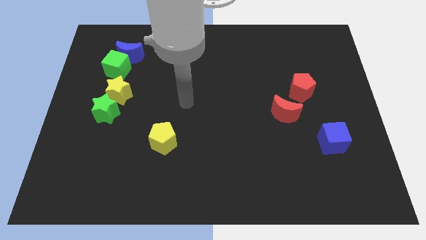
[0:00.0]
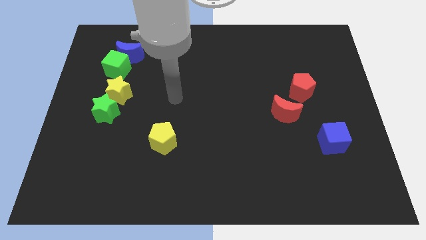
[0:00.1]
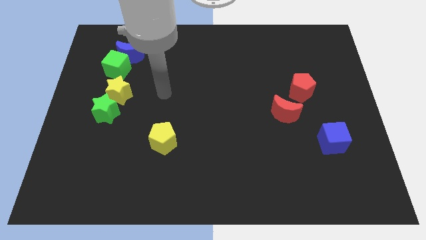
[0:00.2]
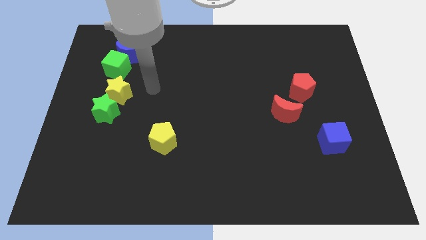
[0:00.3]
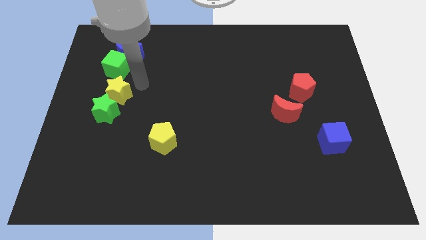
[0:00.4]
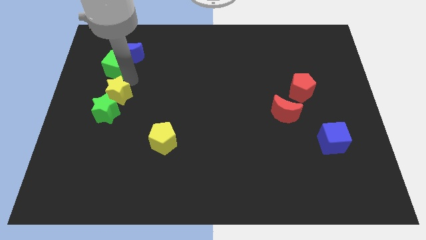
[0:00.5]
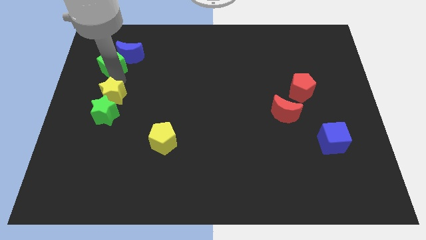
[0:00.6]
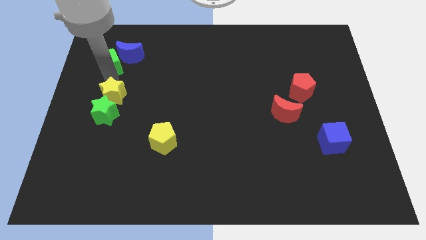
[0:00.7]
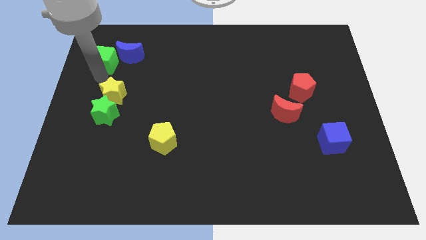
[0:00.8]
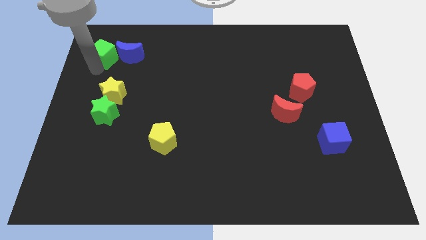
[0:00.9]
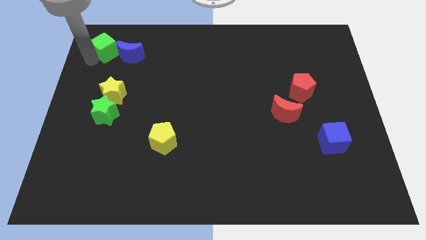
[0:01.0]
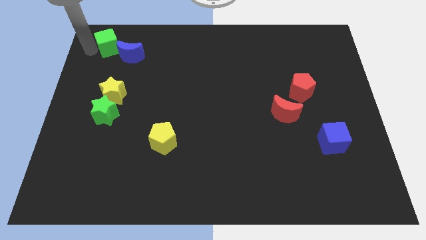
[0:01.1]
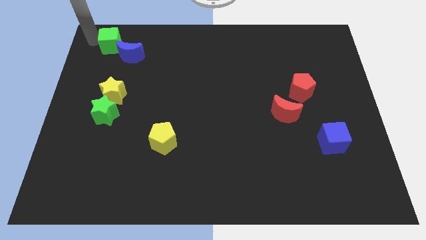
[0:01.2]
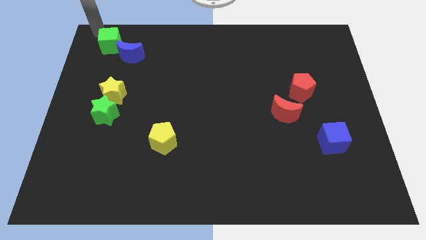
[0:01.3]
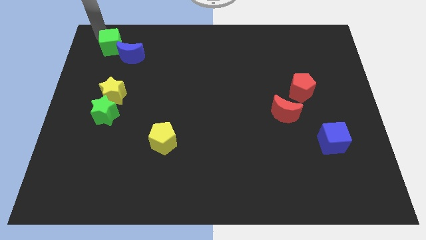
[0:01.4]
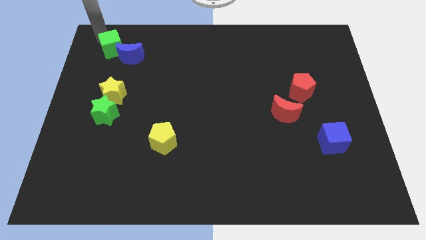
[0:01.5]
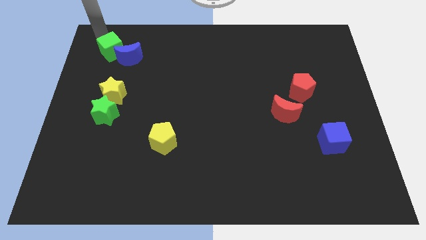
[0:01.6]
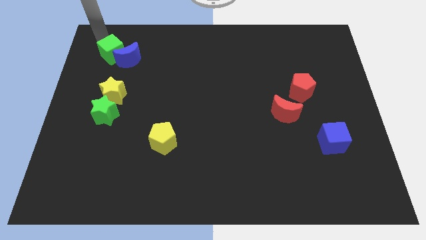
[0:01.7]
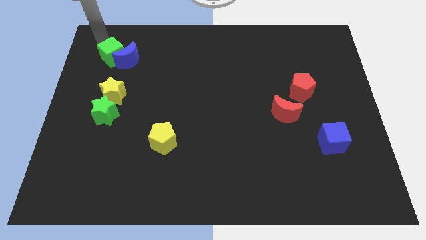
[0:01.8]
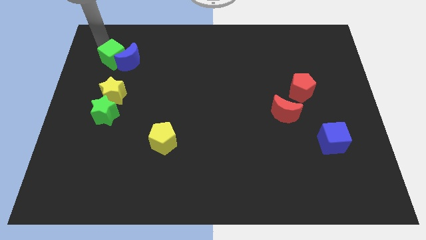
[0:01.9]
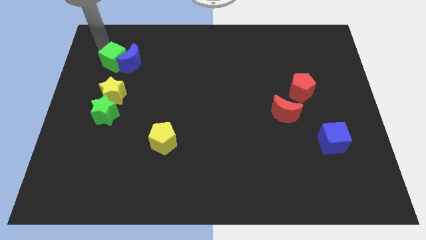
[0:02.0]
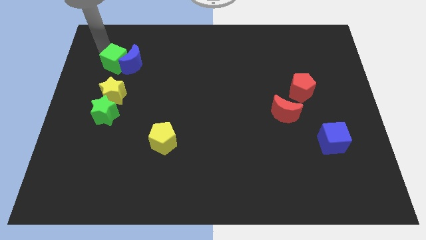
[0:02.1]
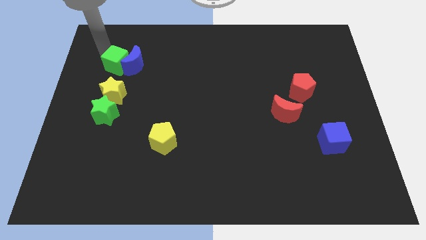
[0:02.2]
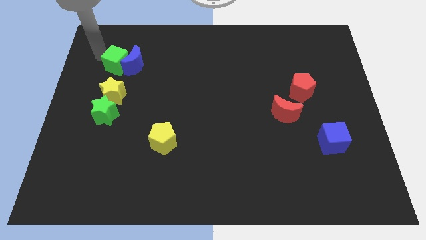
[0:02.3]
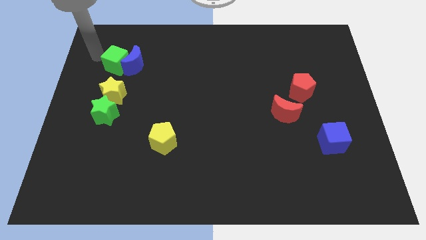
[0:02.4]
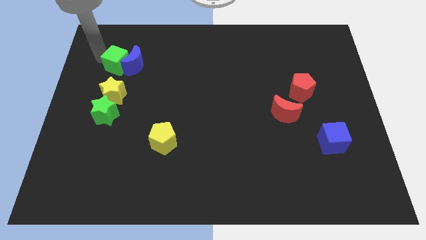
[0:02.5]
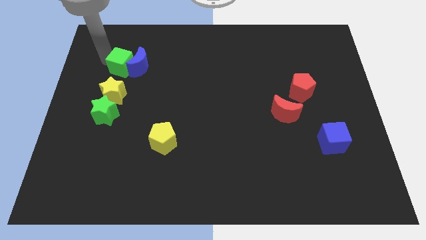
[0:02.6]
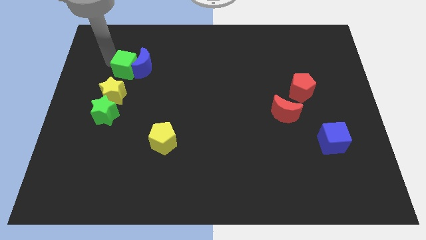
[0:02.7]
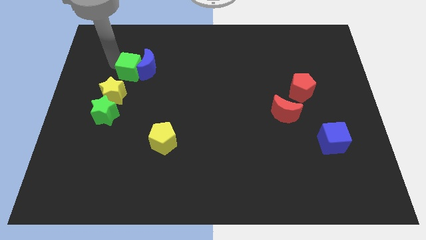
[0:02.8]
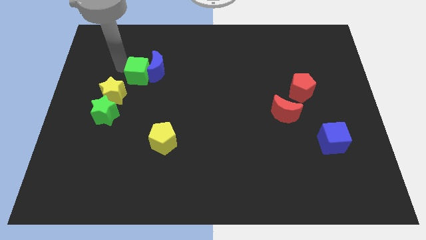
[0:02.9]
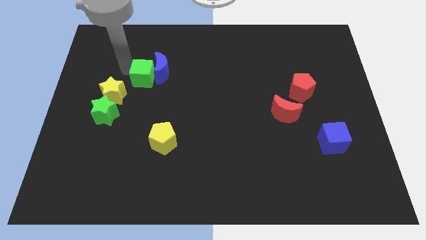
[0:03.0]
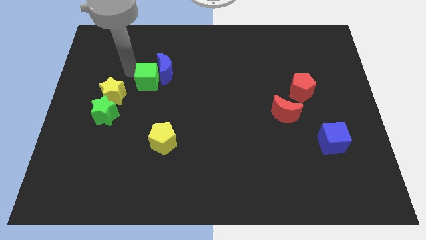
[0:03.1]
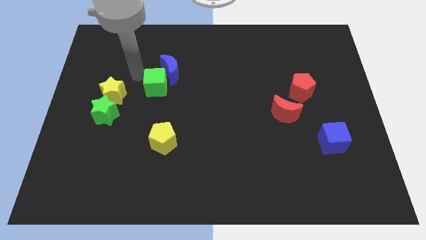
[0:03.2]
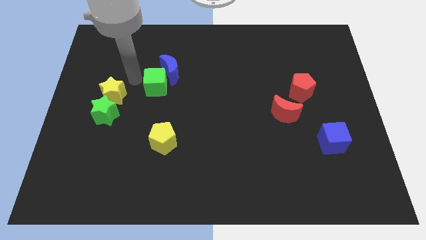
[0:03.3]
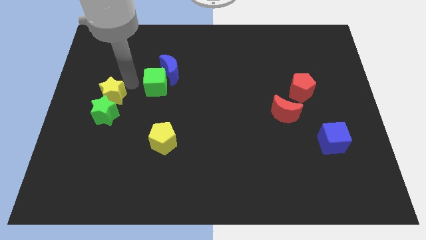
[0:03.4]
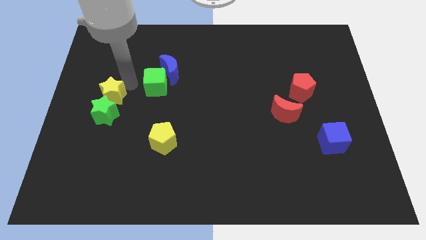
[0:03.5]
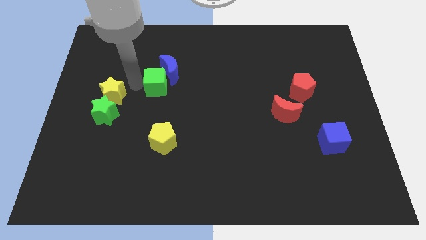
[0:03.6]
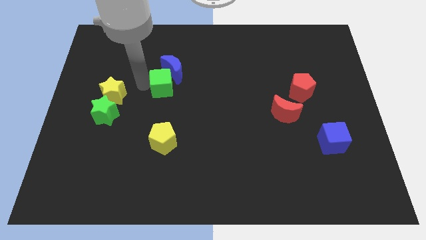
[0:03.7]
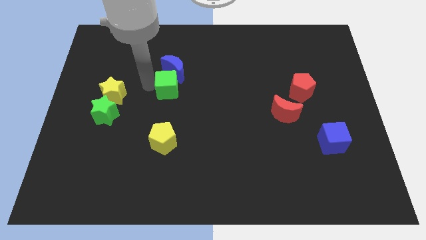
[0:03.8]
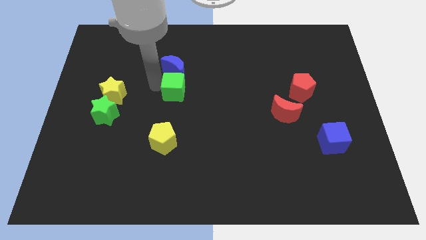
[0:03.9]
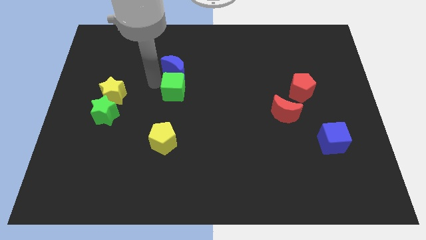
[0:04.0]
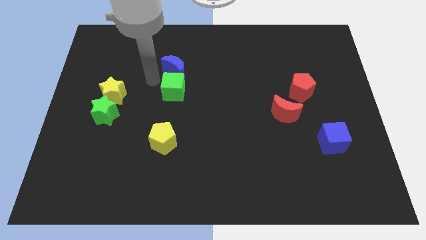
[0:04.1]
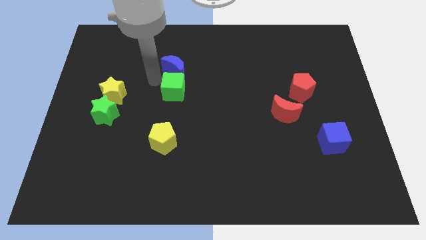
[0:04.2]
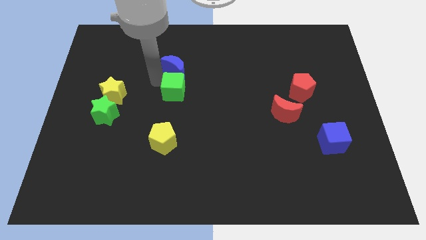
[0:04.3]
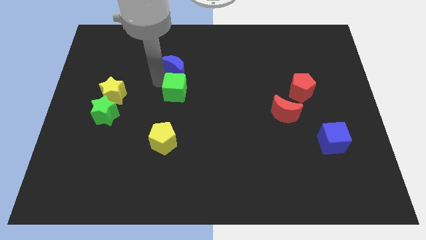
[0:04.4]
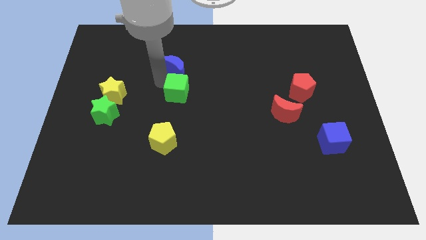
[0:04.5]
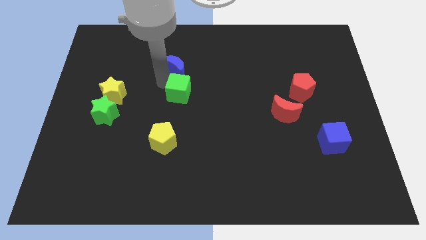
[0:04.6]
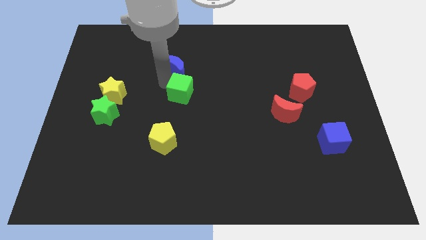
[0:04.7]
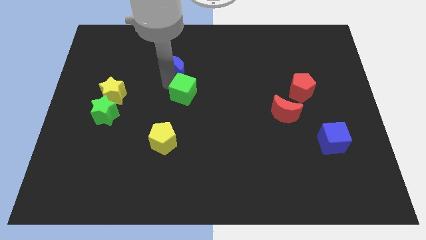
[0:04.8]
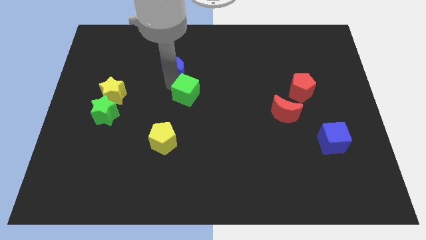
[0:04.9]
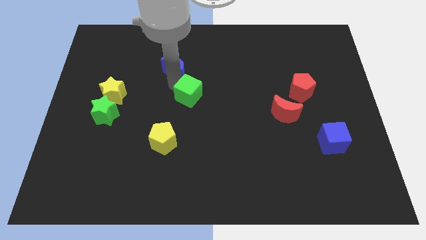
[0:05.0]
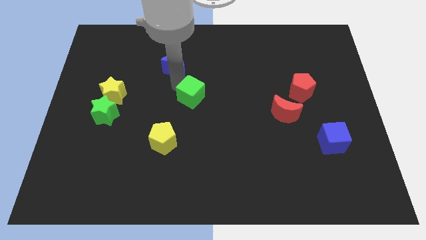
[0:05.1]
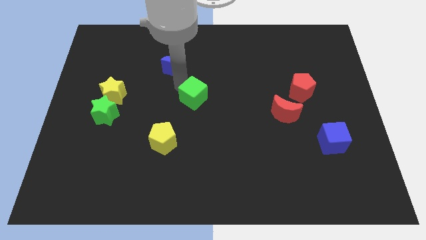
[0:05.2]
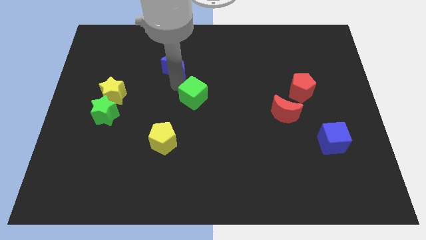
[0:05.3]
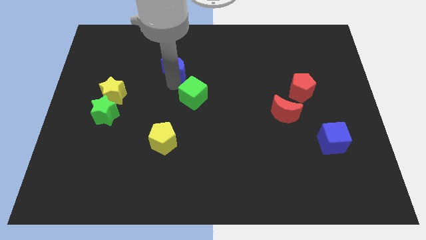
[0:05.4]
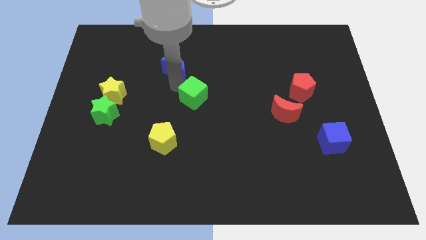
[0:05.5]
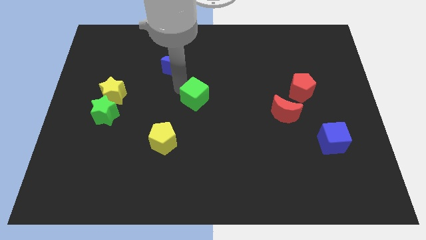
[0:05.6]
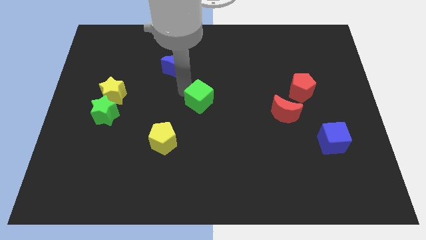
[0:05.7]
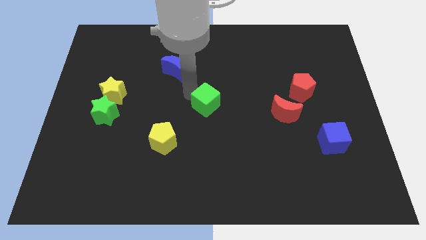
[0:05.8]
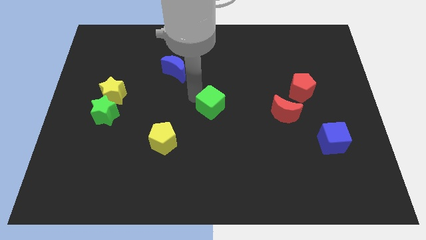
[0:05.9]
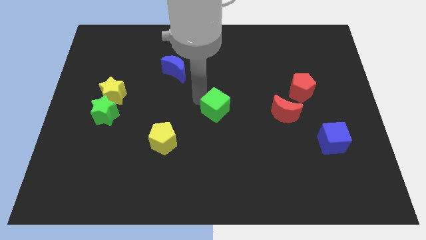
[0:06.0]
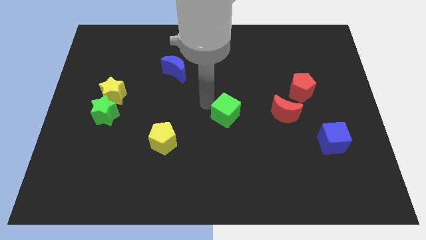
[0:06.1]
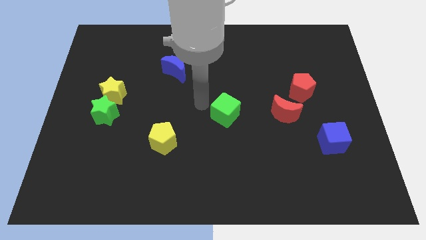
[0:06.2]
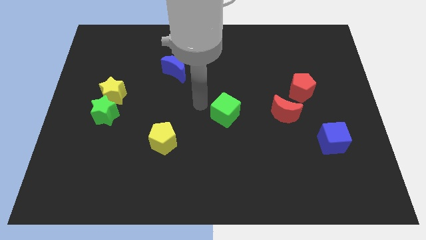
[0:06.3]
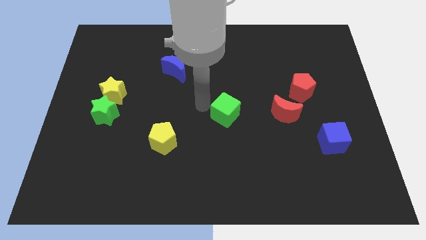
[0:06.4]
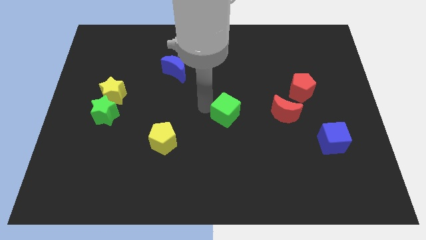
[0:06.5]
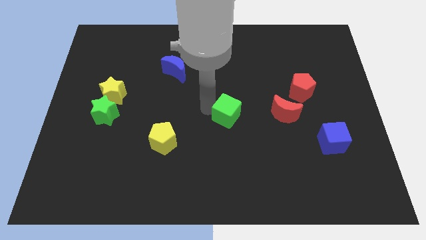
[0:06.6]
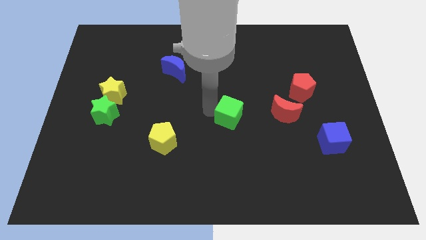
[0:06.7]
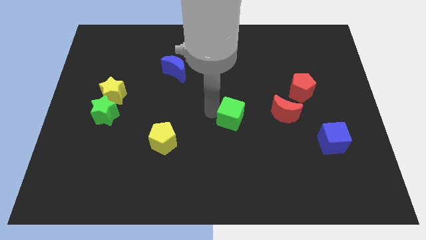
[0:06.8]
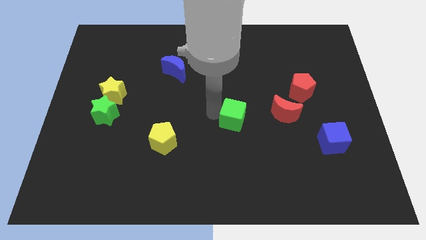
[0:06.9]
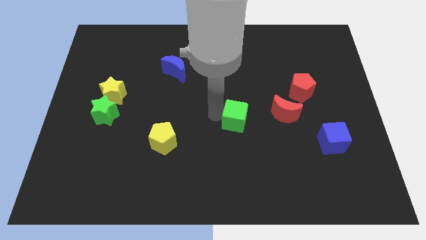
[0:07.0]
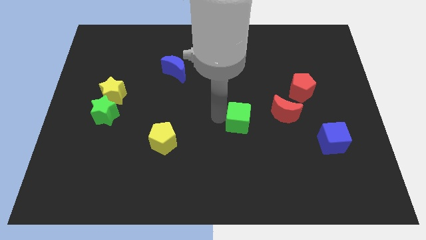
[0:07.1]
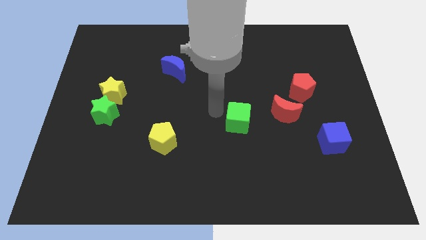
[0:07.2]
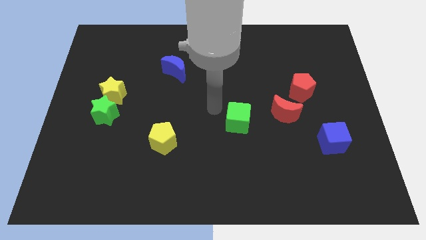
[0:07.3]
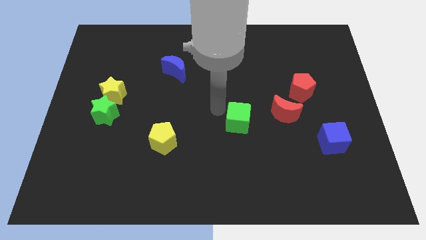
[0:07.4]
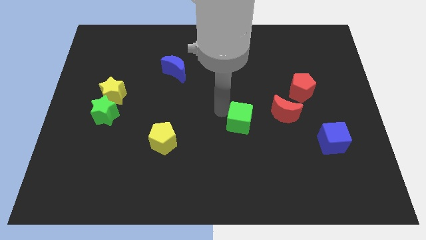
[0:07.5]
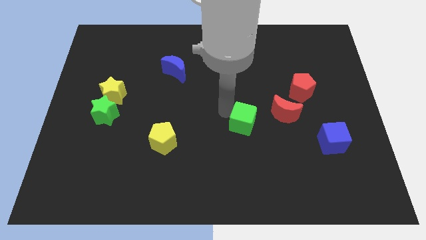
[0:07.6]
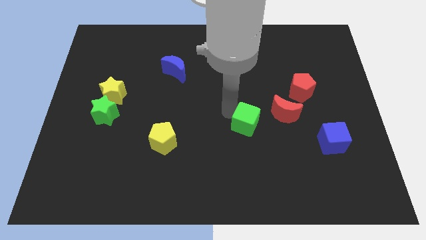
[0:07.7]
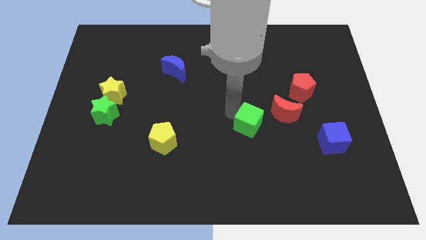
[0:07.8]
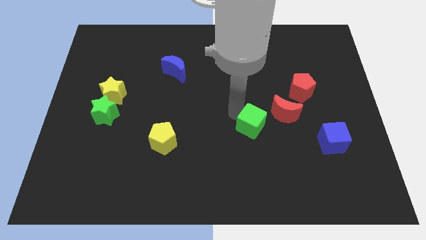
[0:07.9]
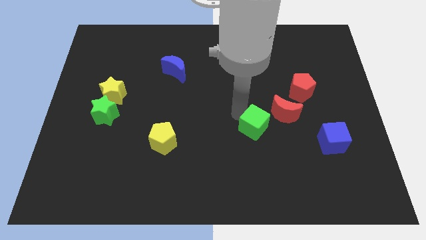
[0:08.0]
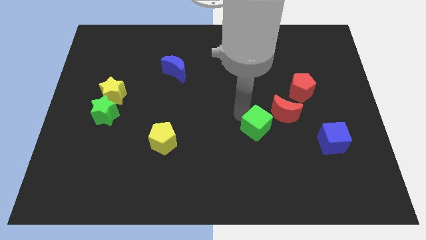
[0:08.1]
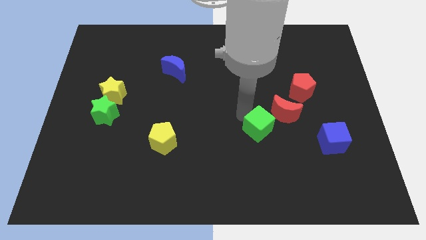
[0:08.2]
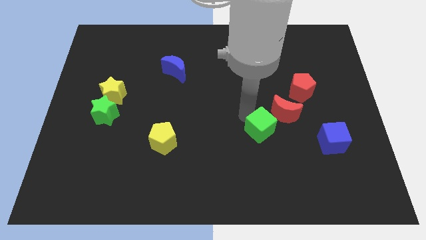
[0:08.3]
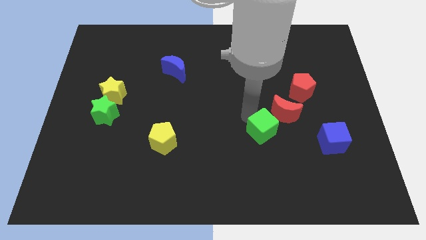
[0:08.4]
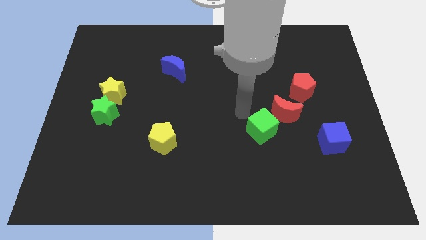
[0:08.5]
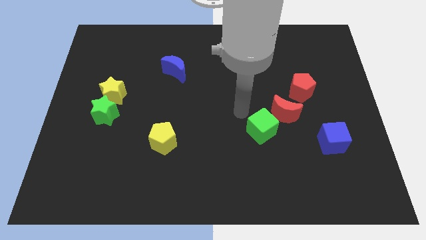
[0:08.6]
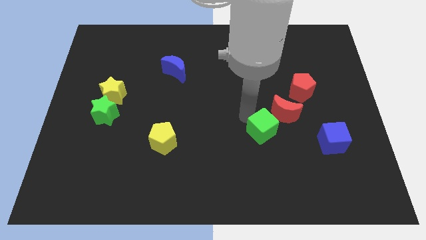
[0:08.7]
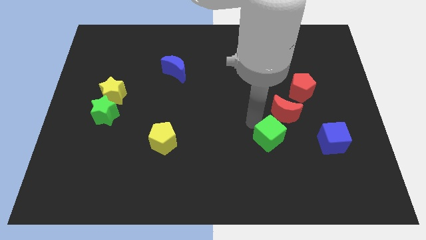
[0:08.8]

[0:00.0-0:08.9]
slide the green cube to the bottom of the red moon
